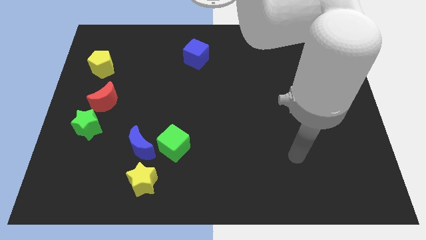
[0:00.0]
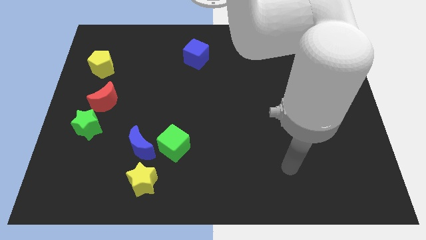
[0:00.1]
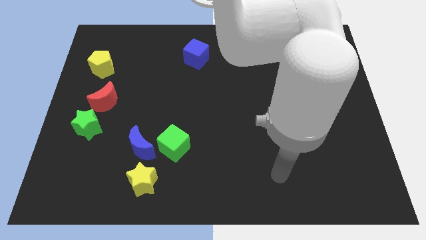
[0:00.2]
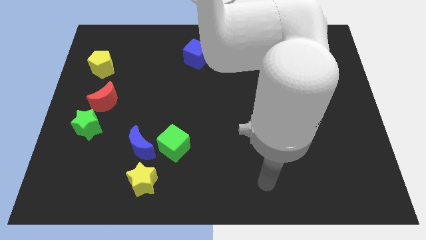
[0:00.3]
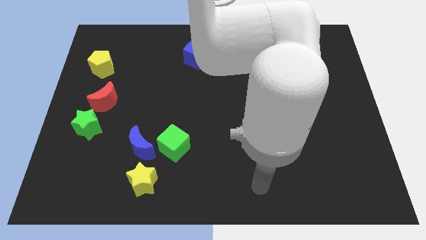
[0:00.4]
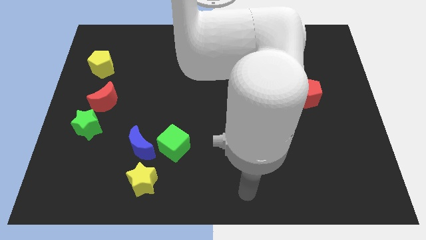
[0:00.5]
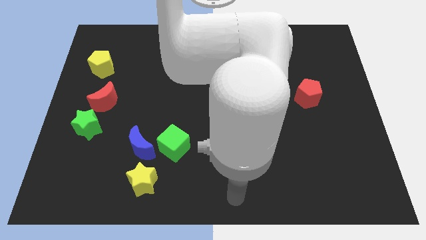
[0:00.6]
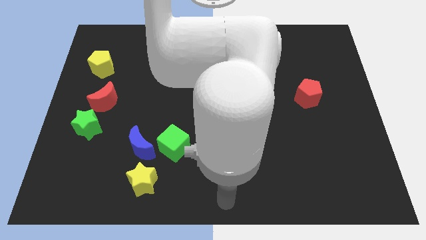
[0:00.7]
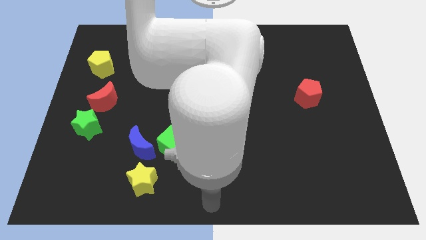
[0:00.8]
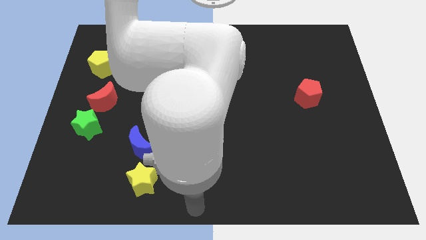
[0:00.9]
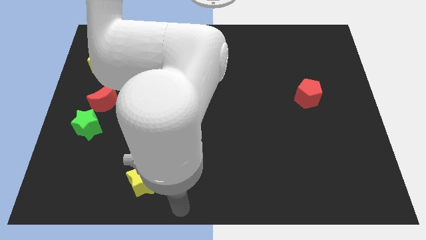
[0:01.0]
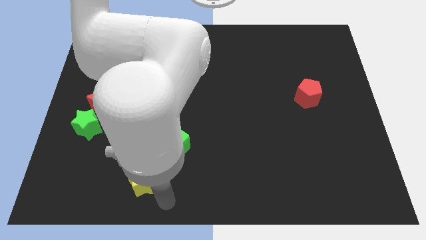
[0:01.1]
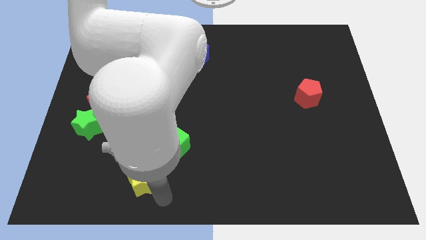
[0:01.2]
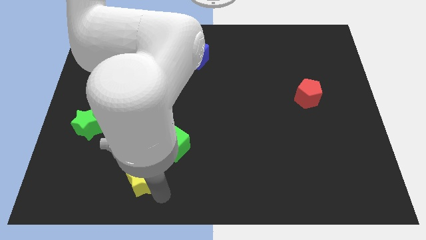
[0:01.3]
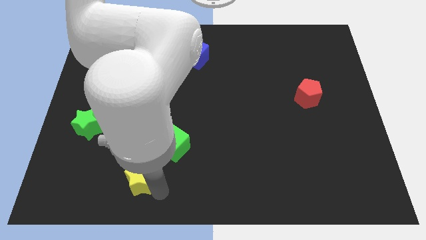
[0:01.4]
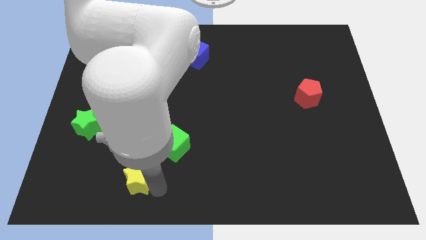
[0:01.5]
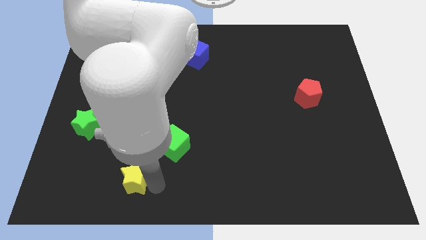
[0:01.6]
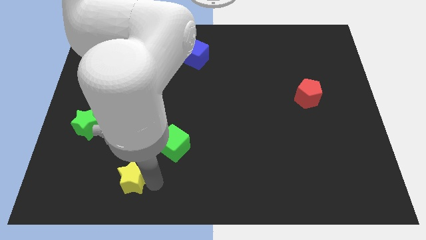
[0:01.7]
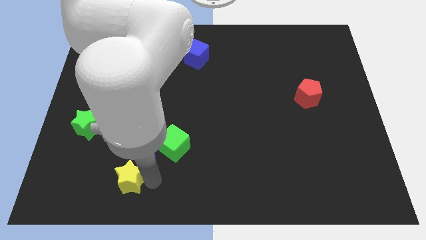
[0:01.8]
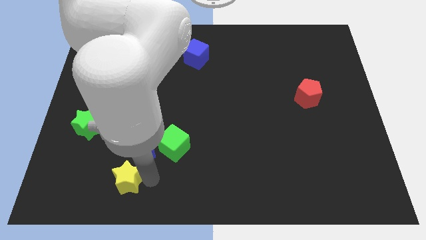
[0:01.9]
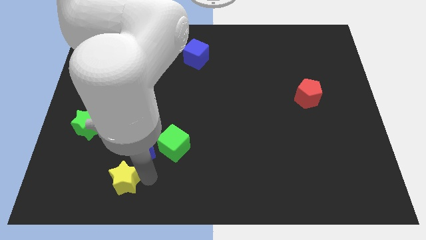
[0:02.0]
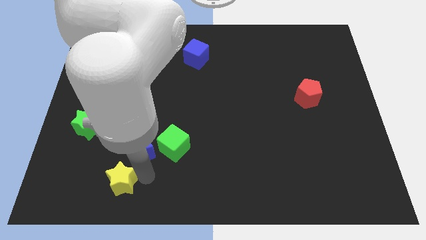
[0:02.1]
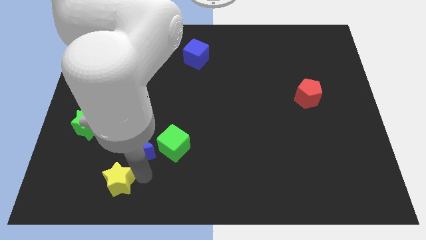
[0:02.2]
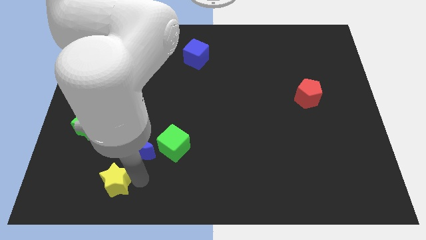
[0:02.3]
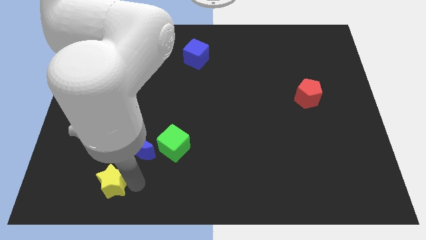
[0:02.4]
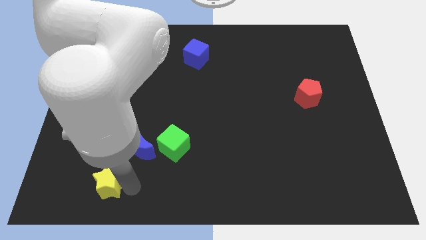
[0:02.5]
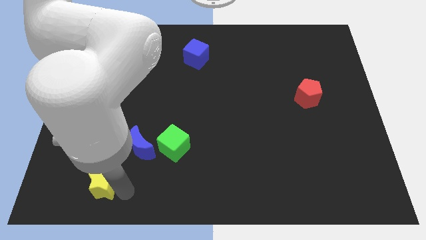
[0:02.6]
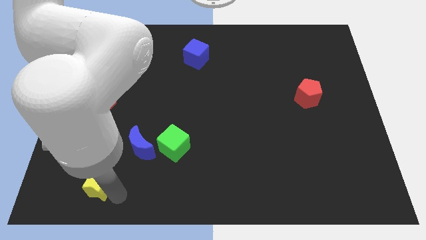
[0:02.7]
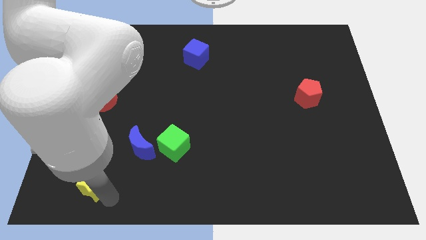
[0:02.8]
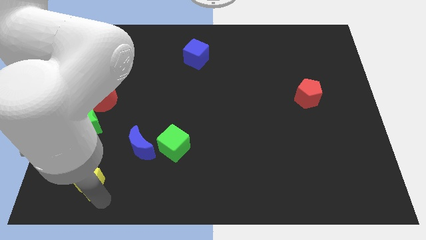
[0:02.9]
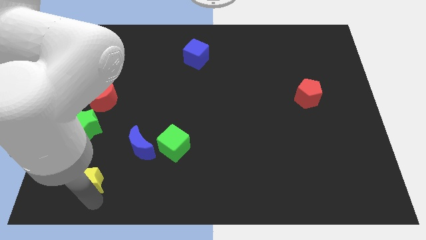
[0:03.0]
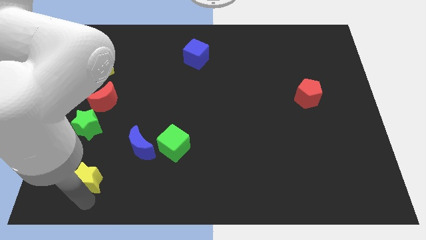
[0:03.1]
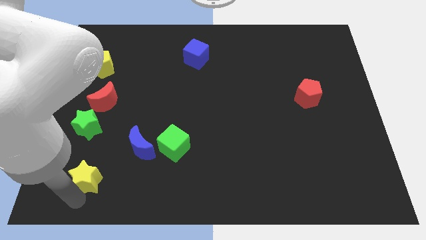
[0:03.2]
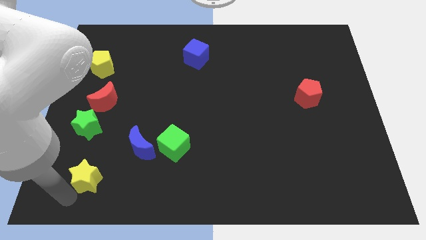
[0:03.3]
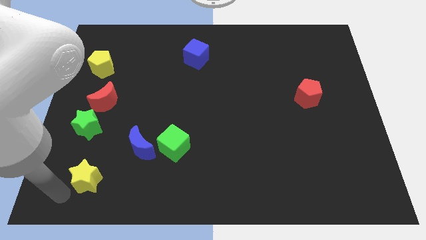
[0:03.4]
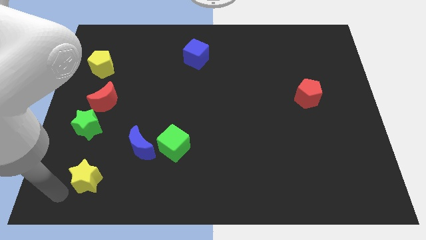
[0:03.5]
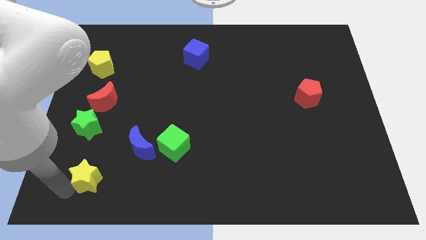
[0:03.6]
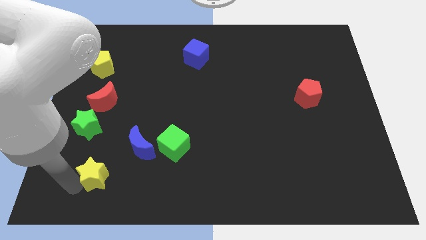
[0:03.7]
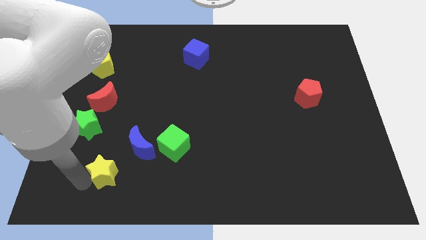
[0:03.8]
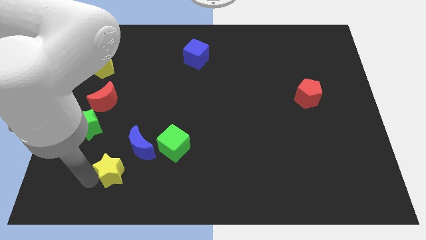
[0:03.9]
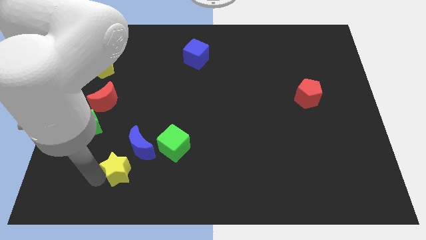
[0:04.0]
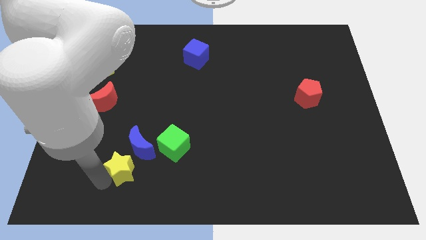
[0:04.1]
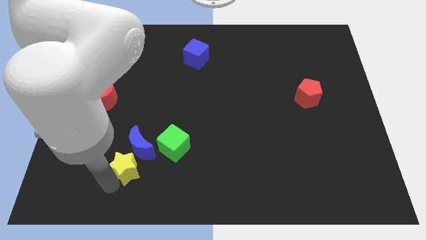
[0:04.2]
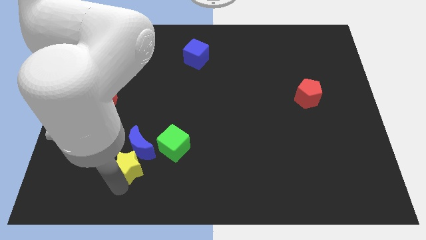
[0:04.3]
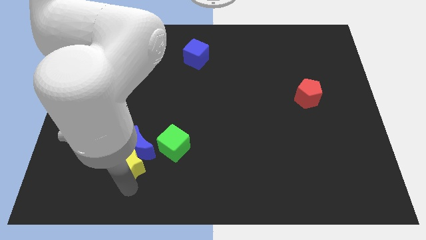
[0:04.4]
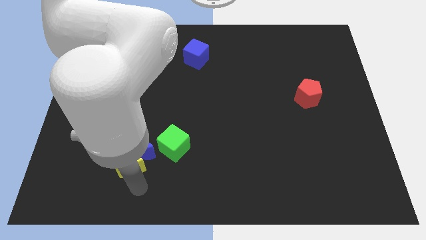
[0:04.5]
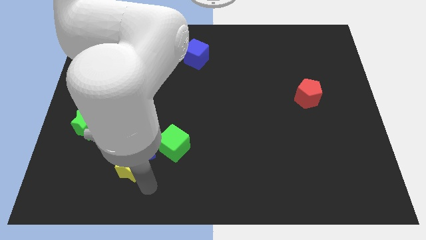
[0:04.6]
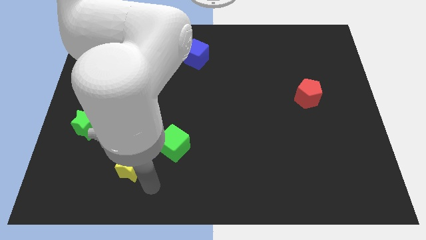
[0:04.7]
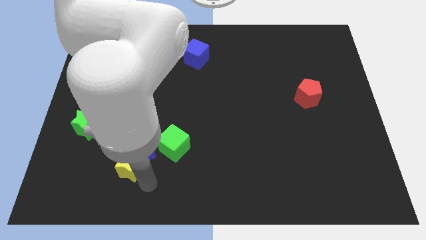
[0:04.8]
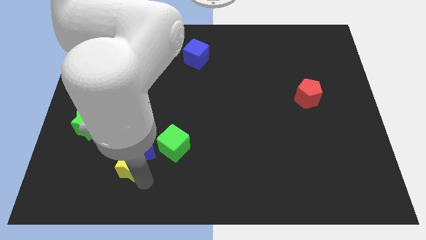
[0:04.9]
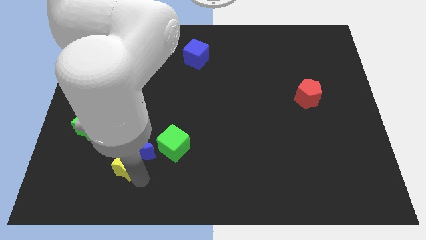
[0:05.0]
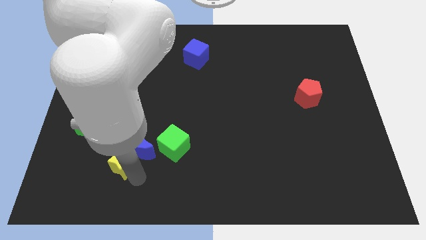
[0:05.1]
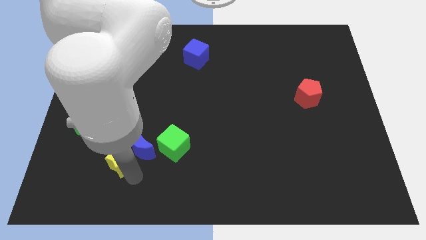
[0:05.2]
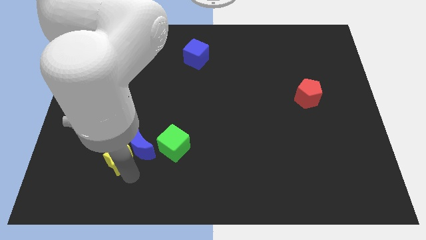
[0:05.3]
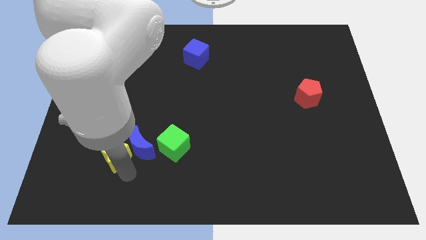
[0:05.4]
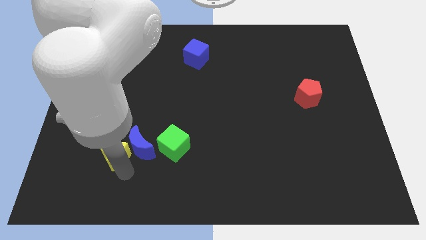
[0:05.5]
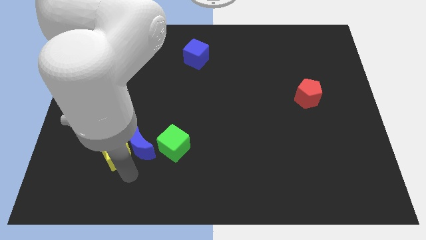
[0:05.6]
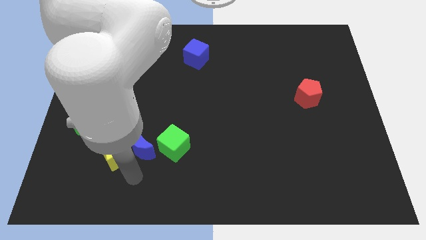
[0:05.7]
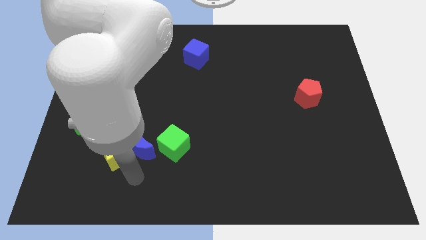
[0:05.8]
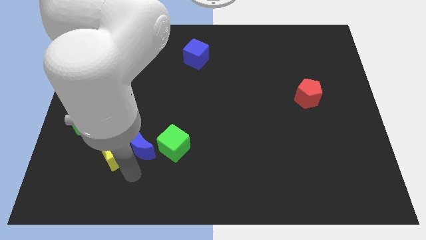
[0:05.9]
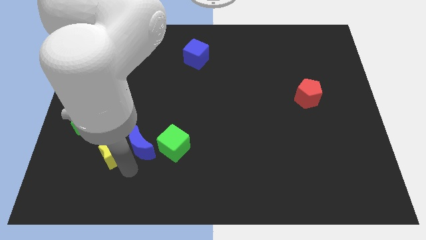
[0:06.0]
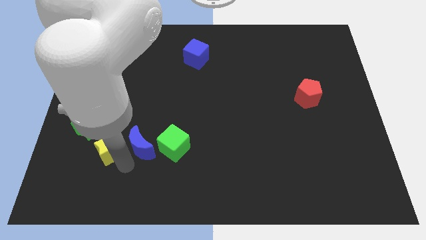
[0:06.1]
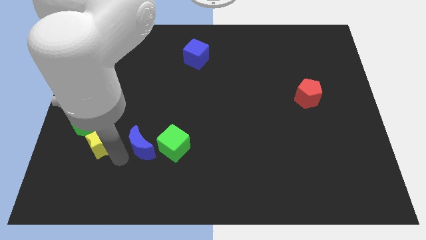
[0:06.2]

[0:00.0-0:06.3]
slide the yellow star next to the green star
